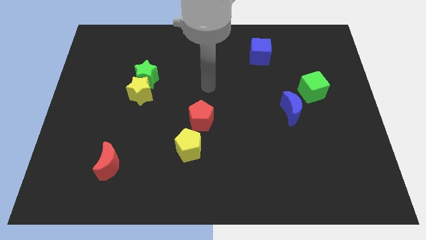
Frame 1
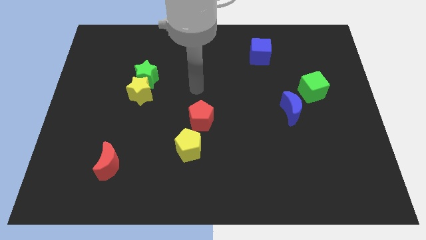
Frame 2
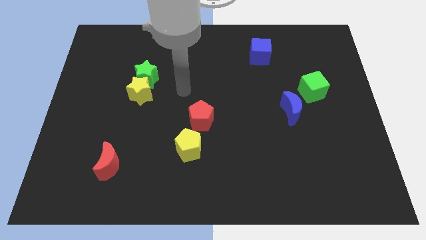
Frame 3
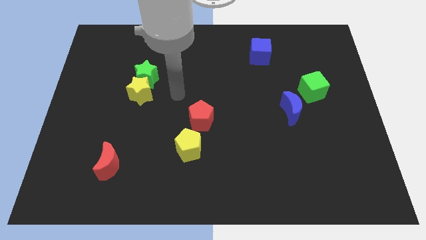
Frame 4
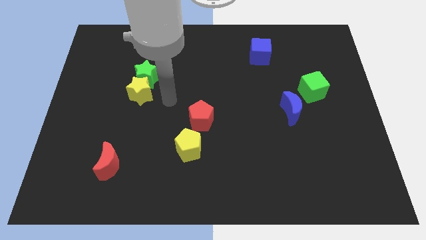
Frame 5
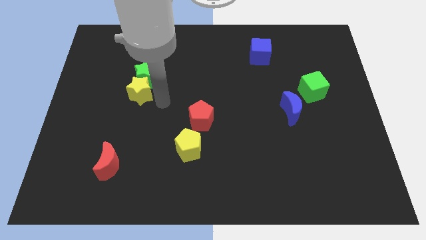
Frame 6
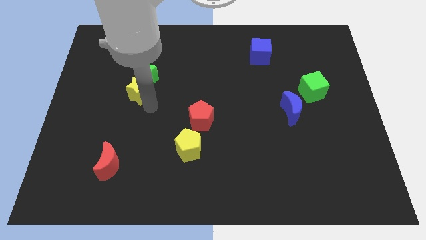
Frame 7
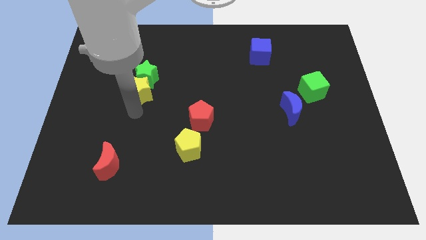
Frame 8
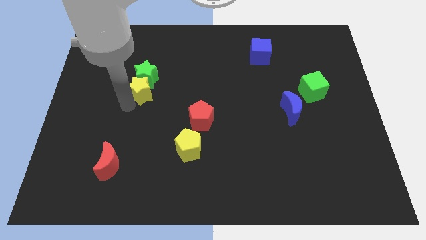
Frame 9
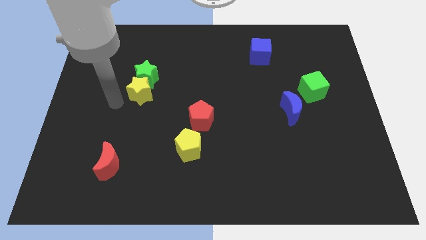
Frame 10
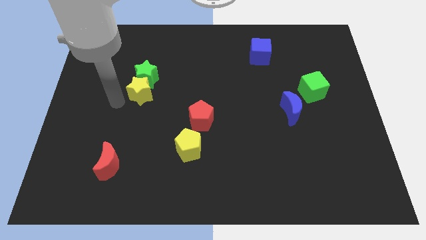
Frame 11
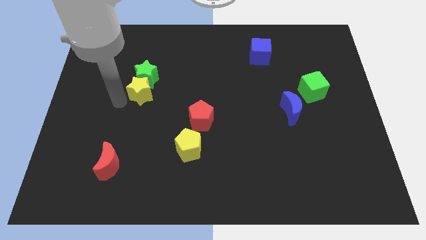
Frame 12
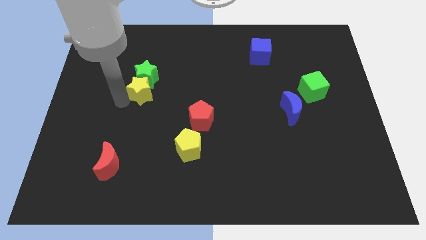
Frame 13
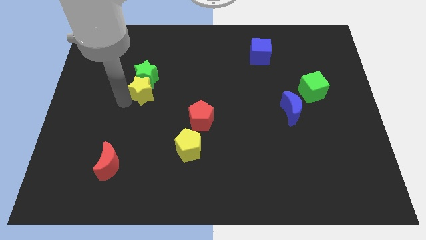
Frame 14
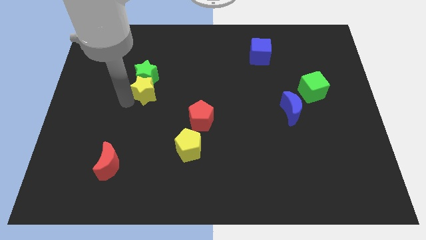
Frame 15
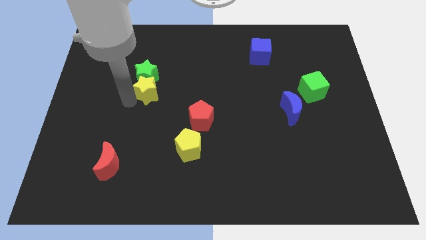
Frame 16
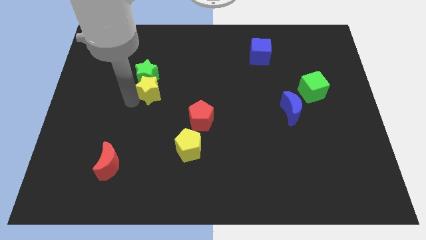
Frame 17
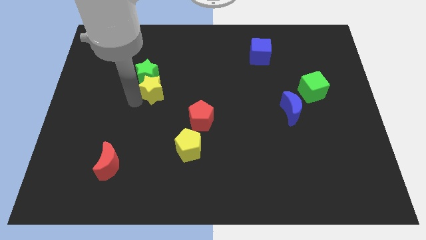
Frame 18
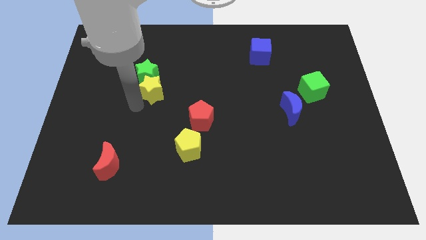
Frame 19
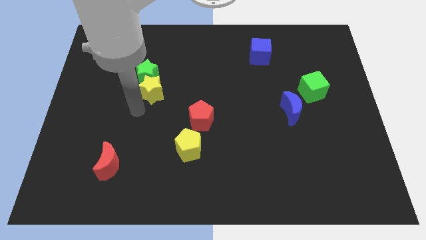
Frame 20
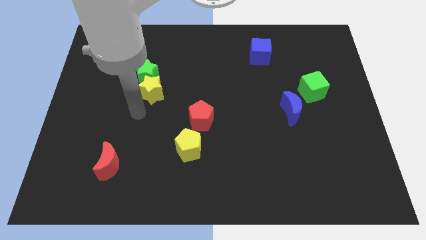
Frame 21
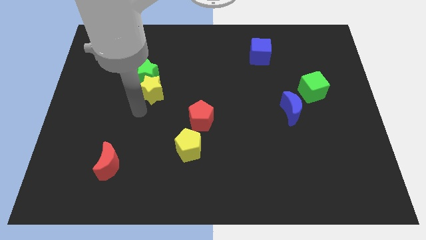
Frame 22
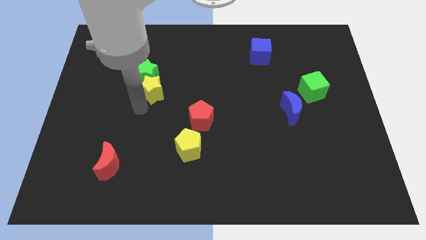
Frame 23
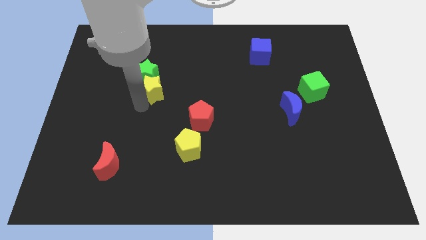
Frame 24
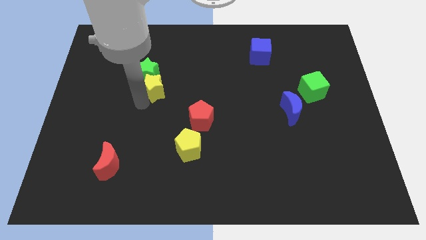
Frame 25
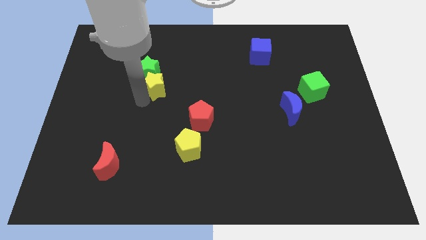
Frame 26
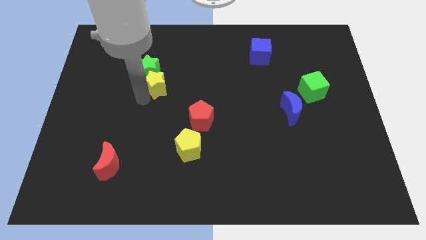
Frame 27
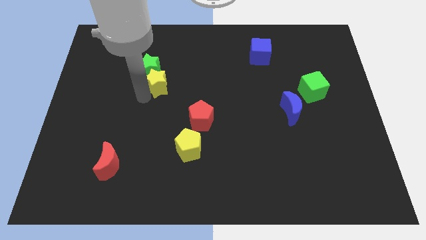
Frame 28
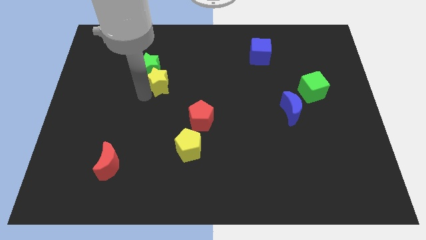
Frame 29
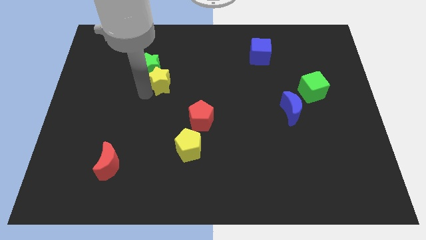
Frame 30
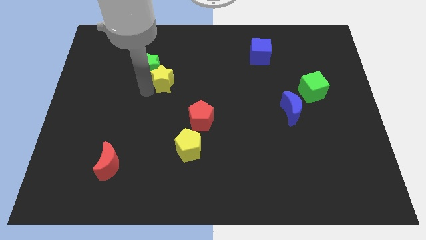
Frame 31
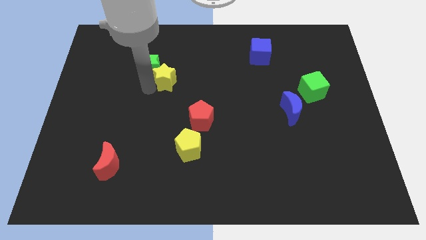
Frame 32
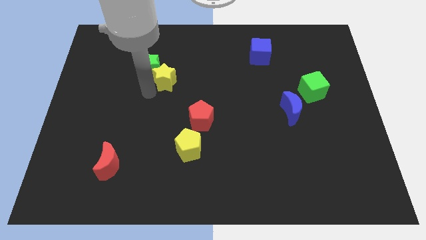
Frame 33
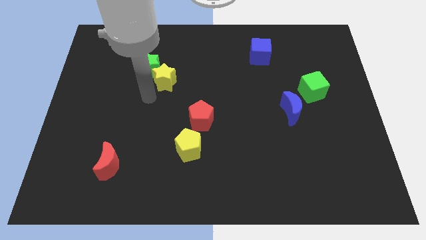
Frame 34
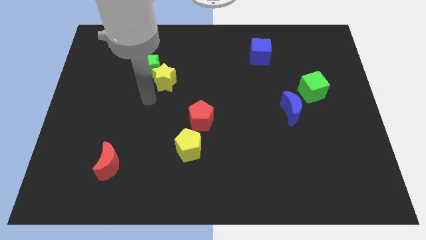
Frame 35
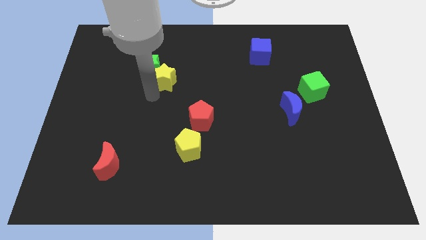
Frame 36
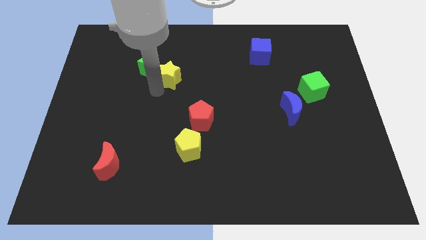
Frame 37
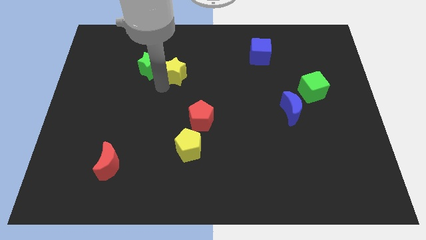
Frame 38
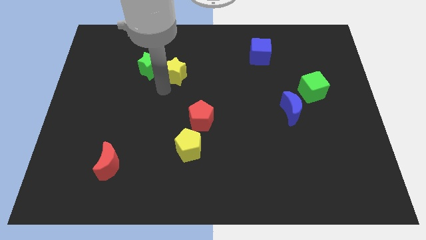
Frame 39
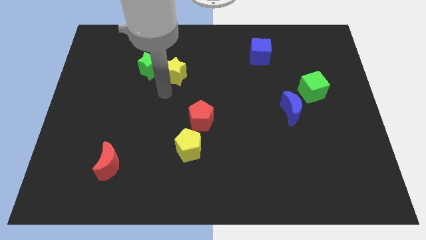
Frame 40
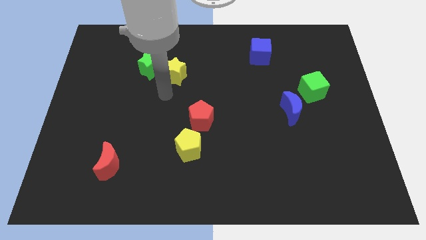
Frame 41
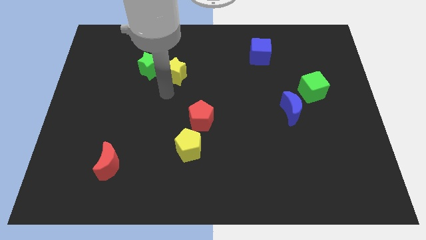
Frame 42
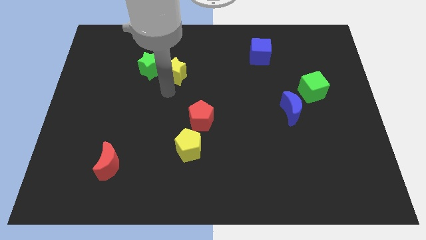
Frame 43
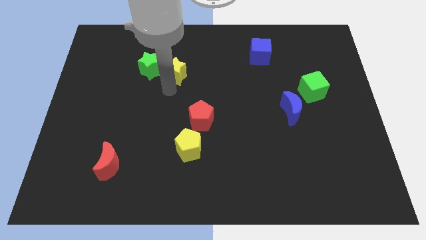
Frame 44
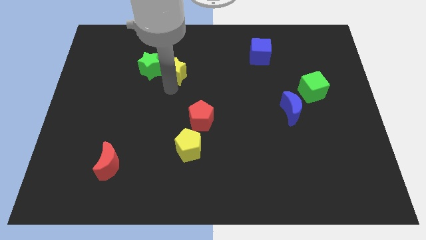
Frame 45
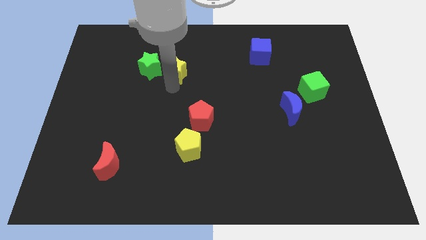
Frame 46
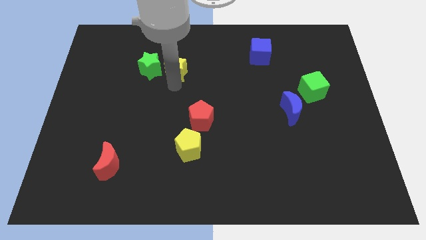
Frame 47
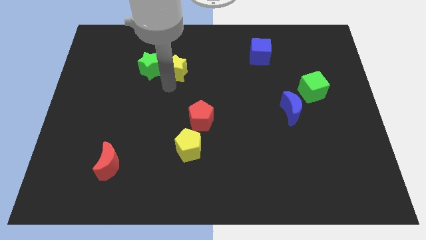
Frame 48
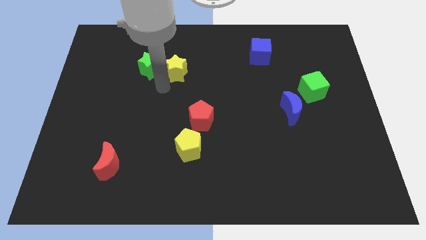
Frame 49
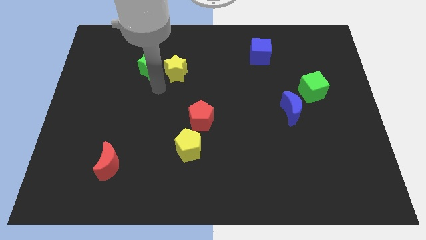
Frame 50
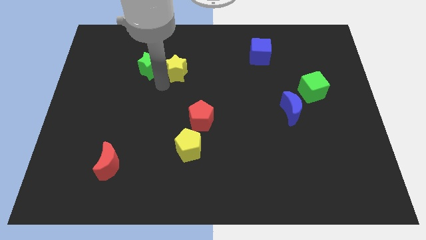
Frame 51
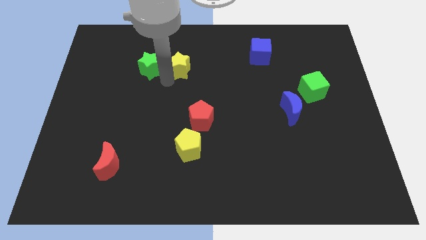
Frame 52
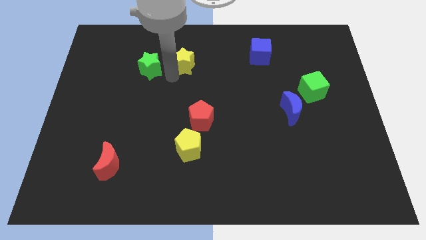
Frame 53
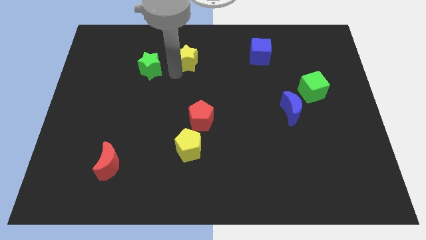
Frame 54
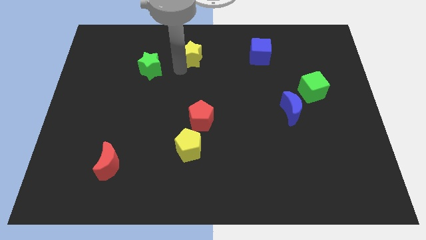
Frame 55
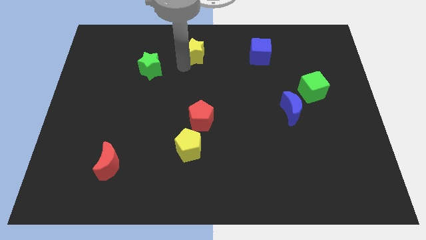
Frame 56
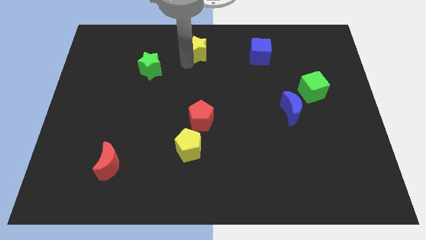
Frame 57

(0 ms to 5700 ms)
push the yellow star to the towards your base

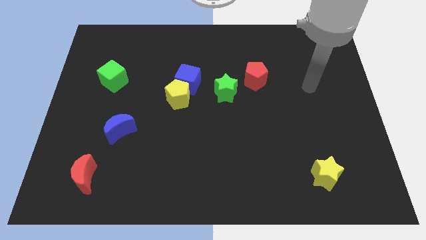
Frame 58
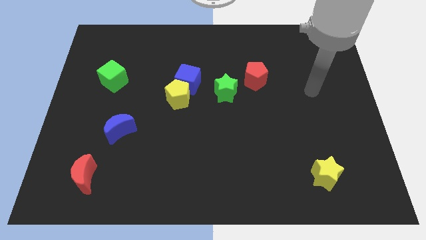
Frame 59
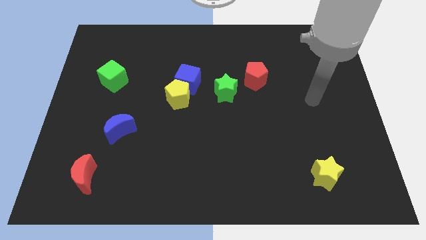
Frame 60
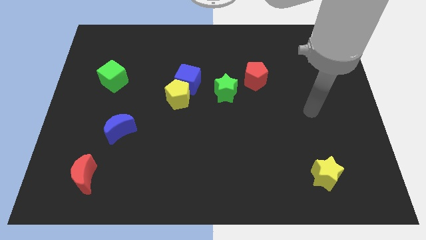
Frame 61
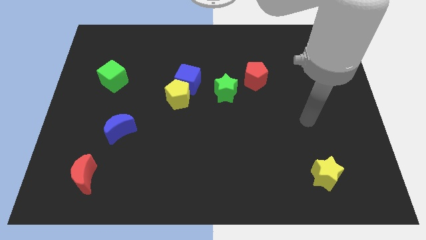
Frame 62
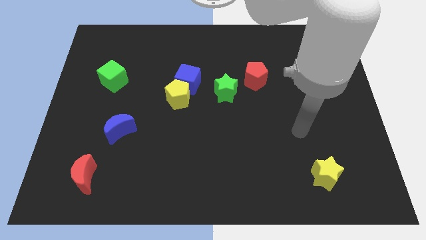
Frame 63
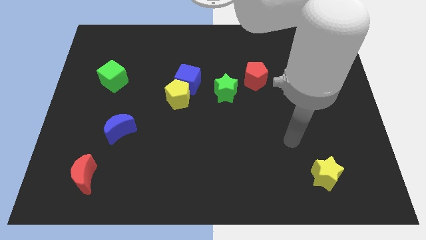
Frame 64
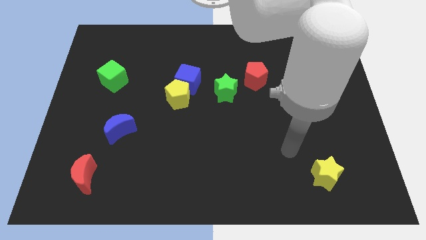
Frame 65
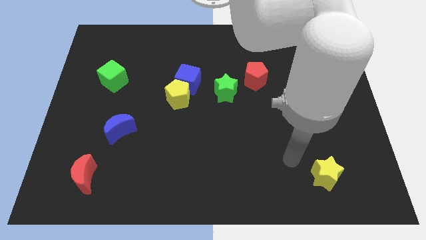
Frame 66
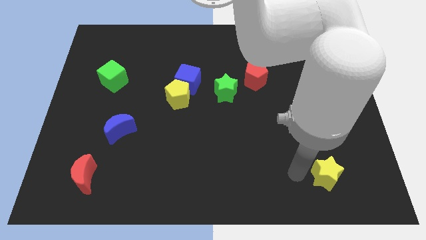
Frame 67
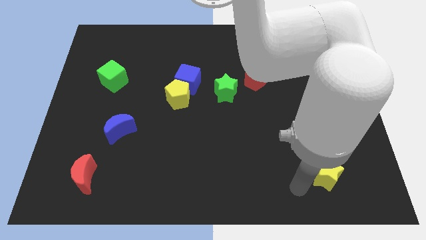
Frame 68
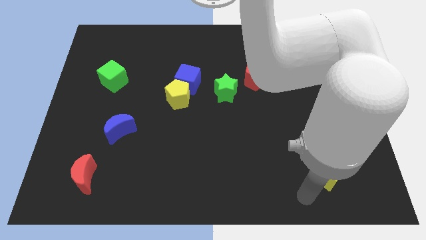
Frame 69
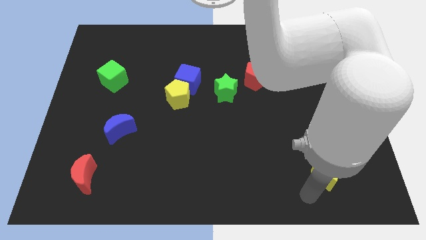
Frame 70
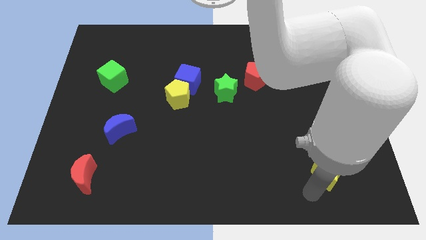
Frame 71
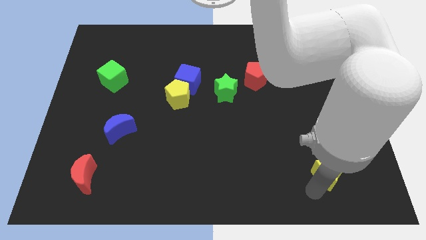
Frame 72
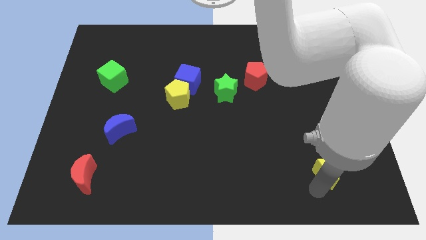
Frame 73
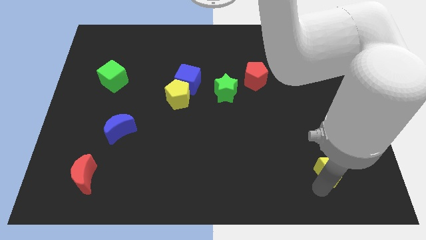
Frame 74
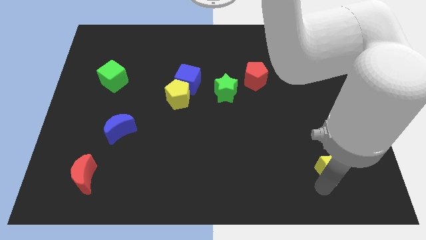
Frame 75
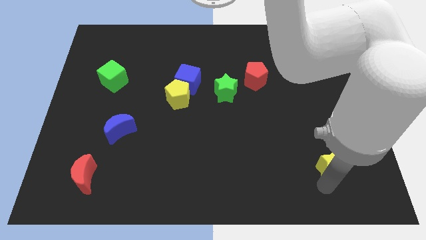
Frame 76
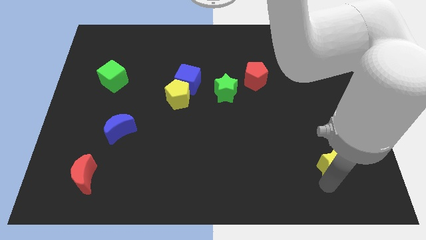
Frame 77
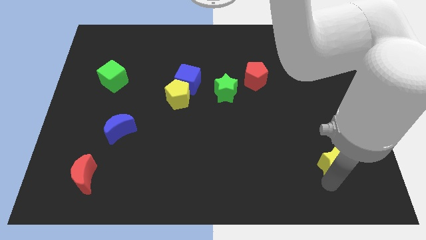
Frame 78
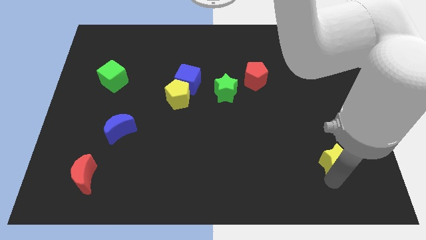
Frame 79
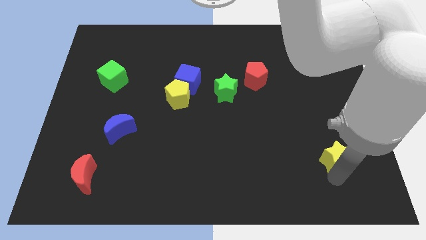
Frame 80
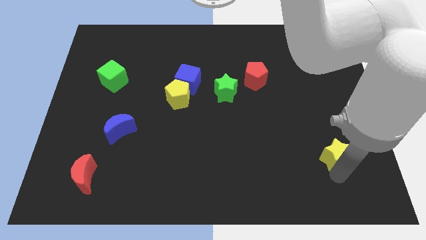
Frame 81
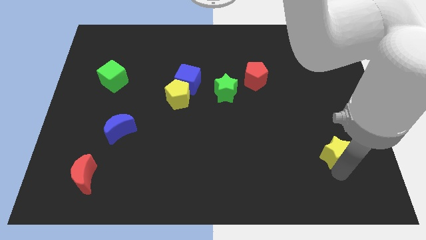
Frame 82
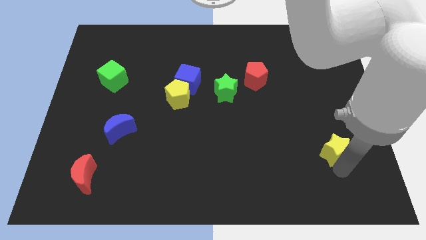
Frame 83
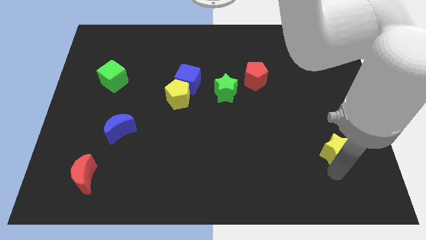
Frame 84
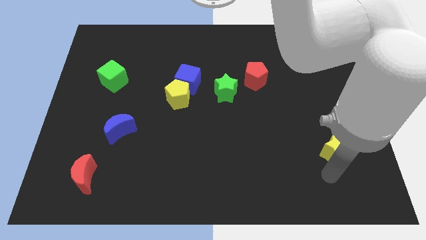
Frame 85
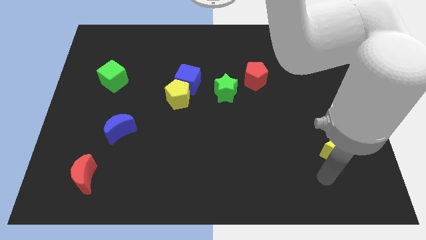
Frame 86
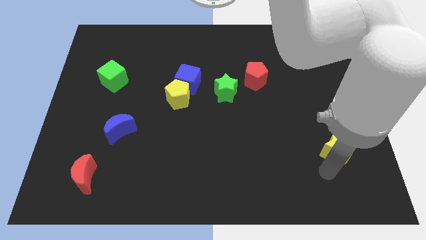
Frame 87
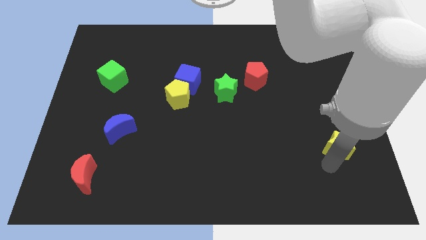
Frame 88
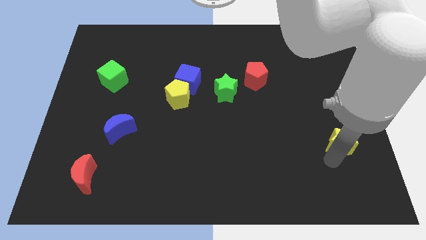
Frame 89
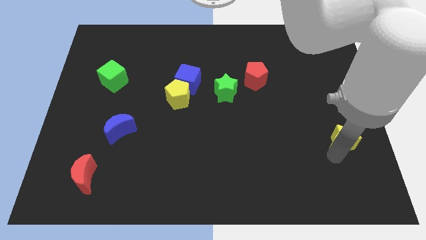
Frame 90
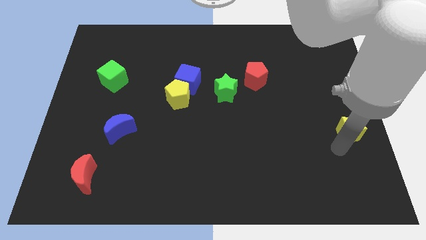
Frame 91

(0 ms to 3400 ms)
put the yellow star to the right side
